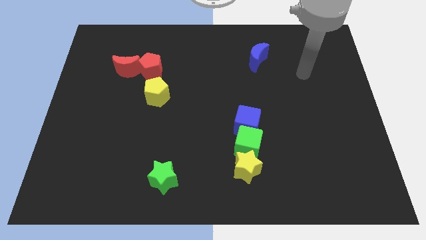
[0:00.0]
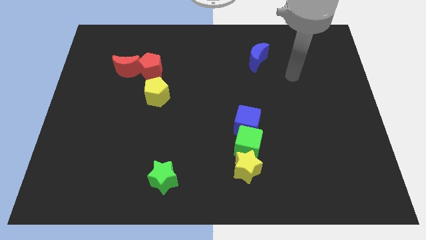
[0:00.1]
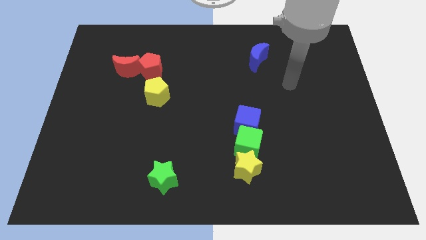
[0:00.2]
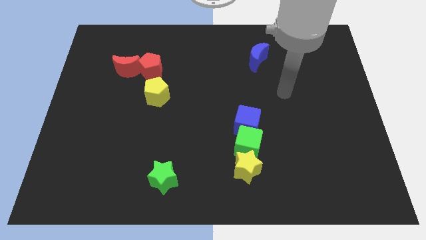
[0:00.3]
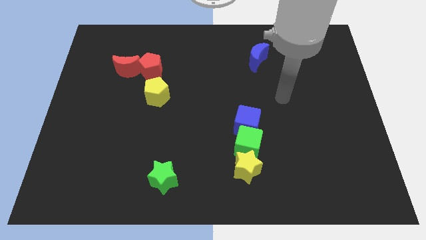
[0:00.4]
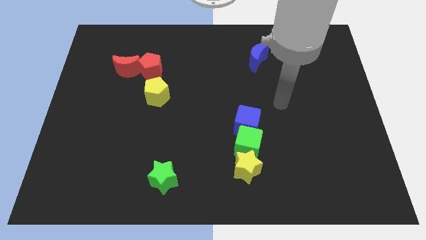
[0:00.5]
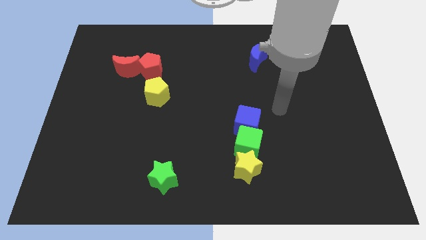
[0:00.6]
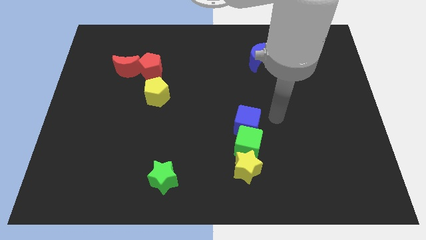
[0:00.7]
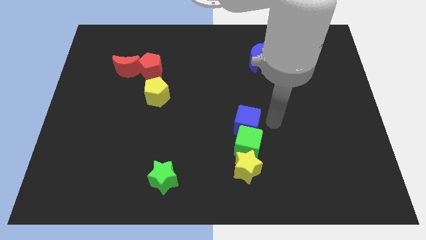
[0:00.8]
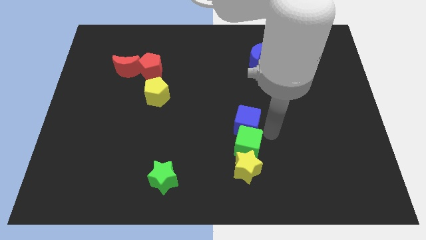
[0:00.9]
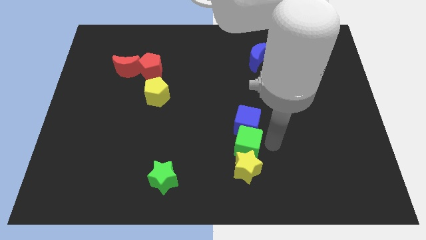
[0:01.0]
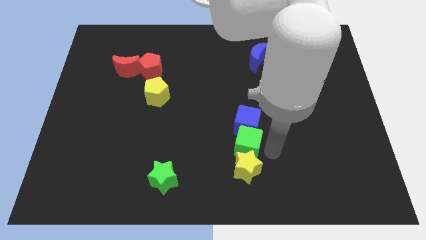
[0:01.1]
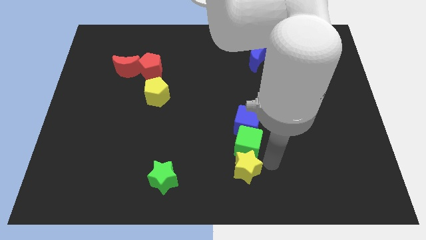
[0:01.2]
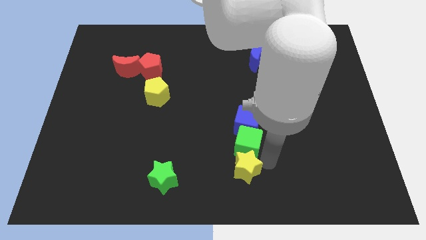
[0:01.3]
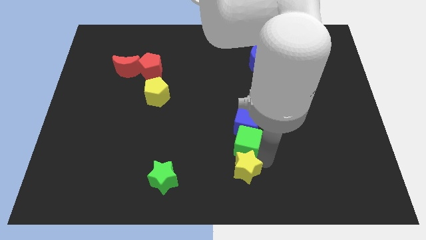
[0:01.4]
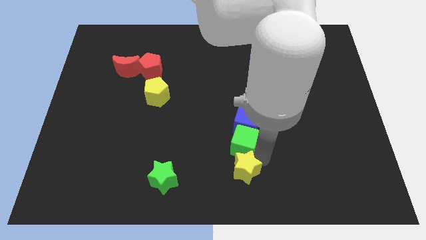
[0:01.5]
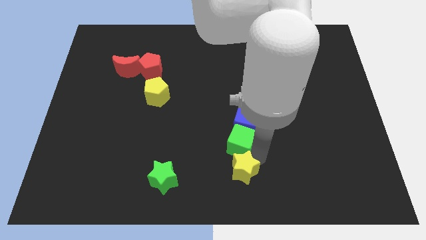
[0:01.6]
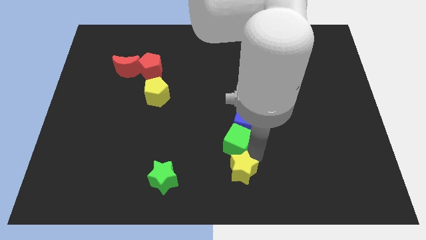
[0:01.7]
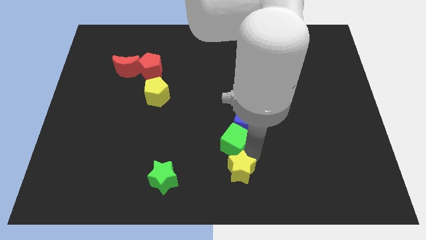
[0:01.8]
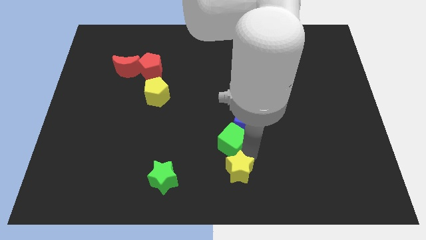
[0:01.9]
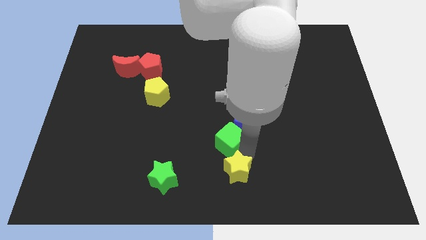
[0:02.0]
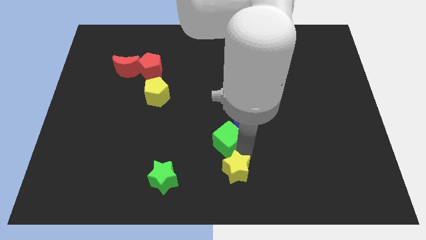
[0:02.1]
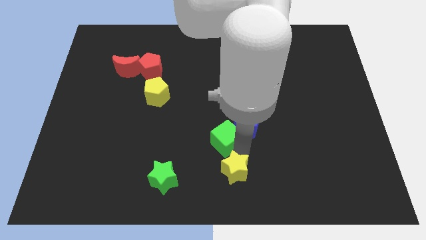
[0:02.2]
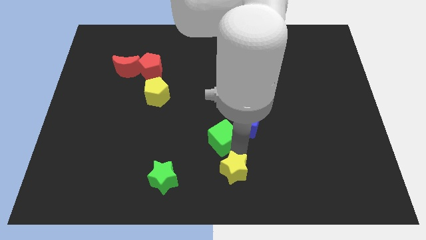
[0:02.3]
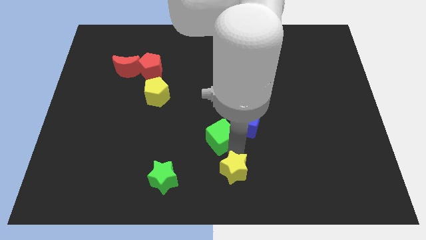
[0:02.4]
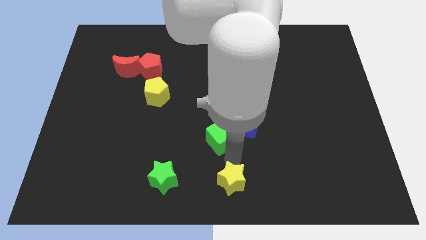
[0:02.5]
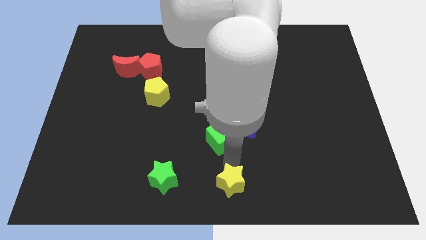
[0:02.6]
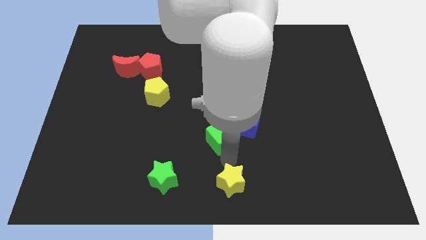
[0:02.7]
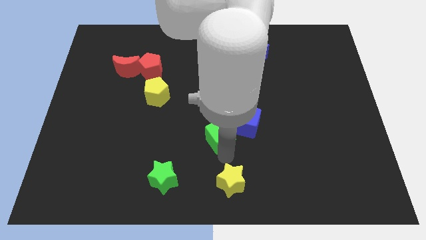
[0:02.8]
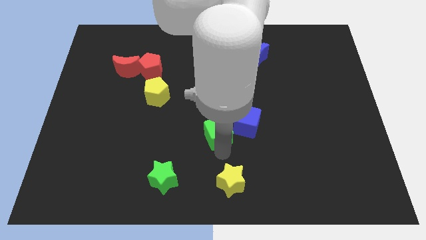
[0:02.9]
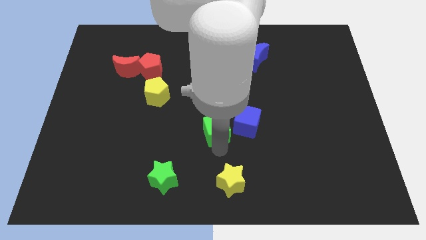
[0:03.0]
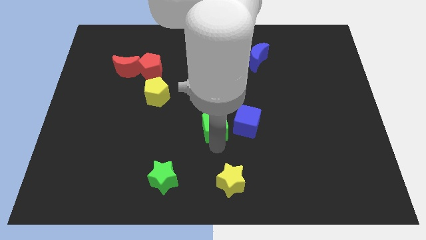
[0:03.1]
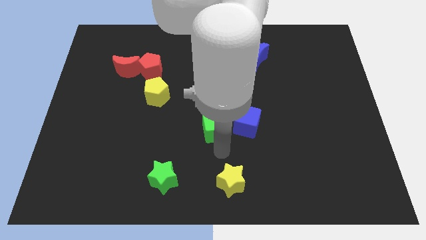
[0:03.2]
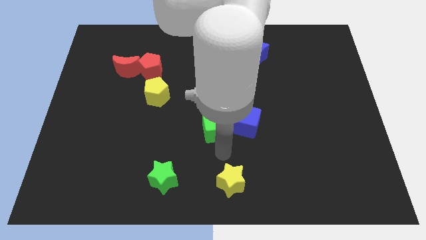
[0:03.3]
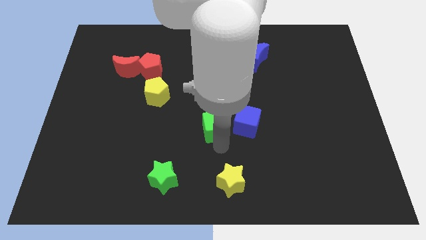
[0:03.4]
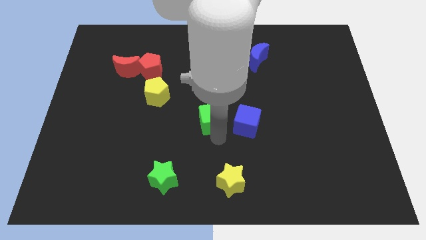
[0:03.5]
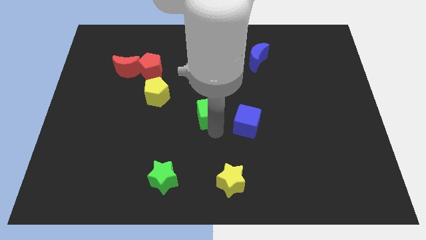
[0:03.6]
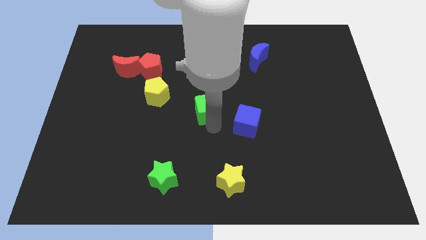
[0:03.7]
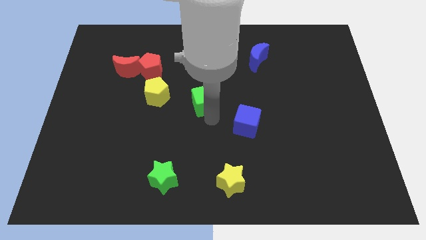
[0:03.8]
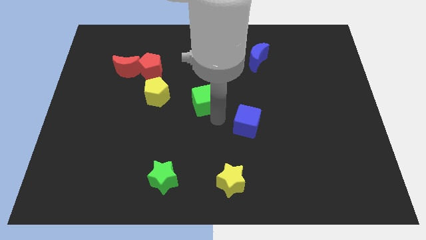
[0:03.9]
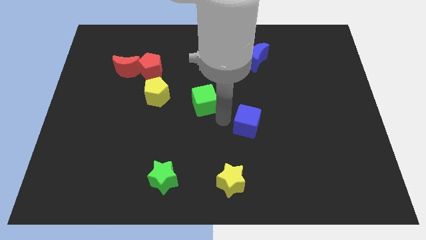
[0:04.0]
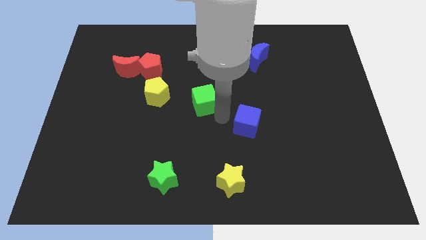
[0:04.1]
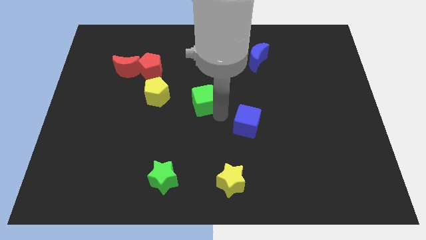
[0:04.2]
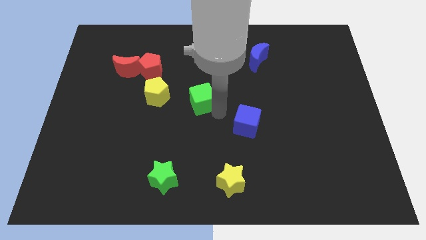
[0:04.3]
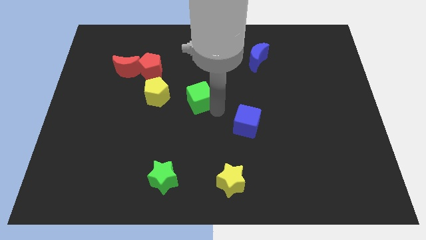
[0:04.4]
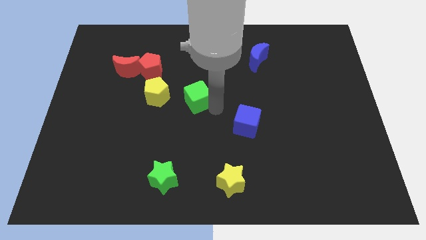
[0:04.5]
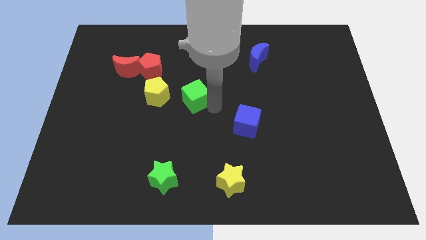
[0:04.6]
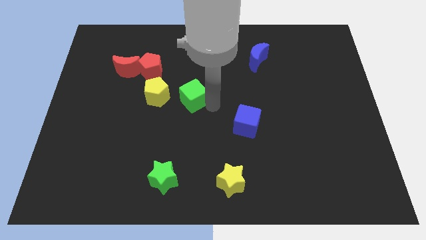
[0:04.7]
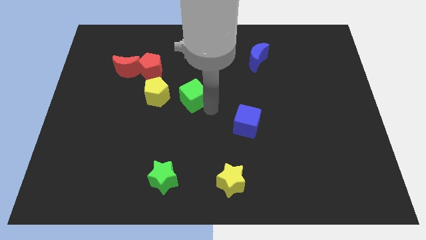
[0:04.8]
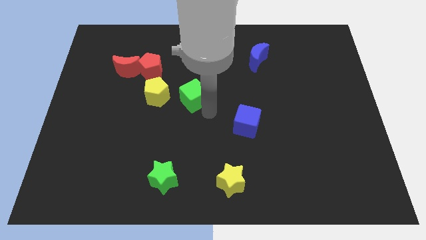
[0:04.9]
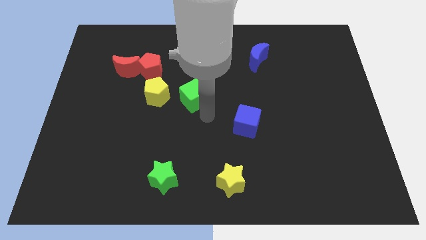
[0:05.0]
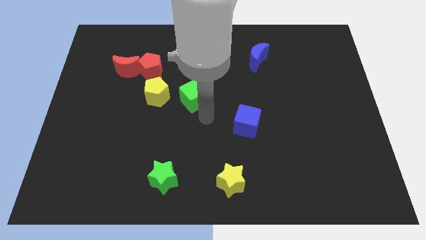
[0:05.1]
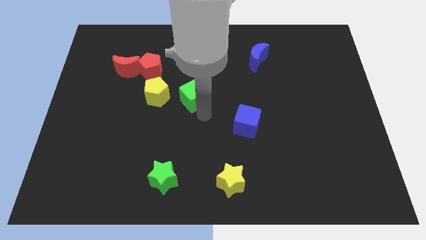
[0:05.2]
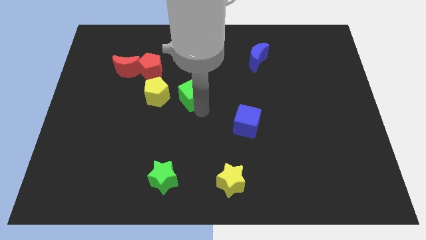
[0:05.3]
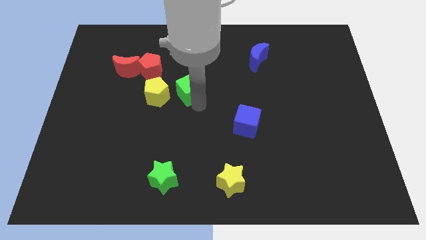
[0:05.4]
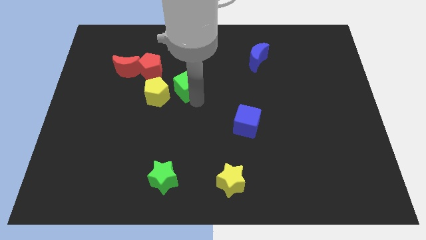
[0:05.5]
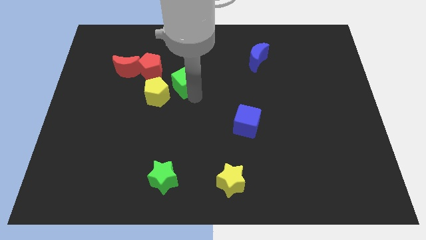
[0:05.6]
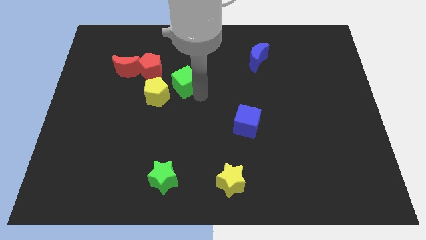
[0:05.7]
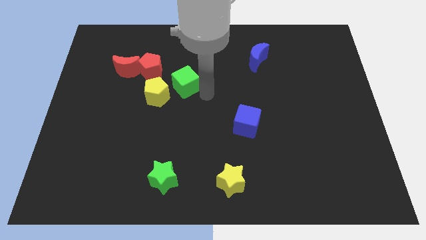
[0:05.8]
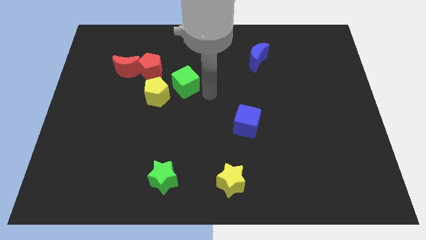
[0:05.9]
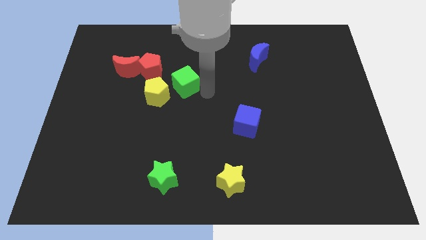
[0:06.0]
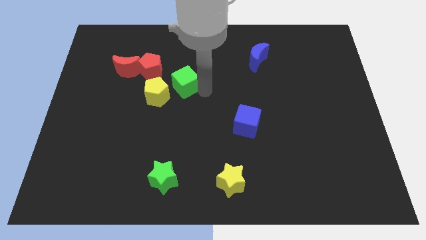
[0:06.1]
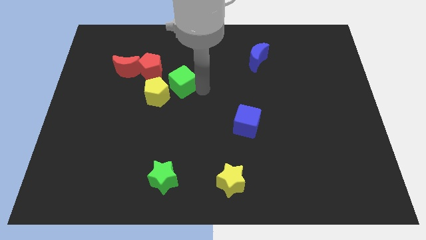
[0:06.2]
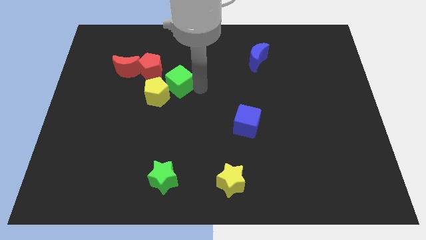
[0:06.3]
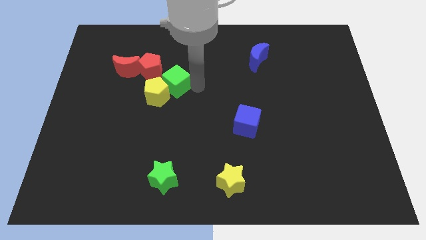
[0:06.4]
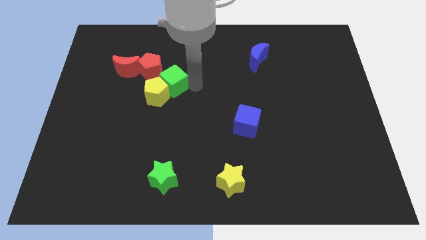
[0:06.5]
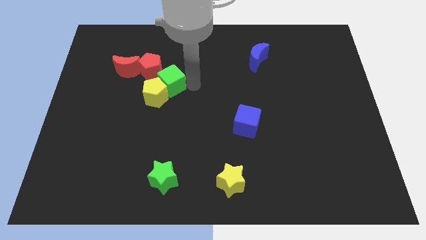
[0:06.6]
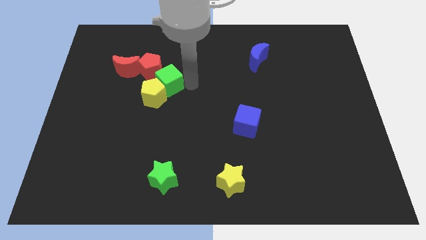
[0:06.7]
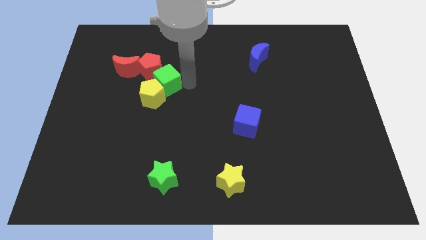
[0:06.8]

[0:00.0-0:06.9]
move the green cube next to the red pentagon
